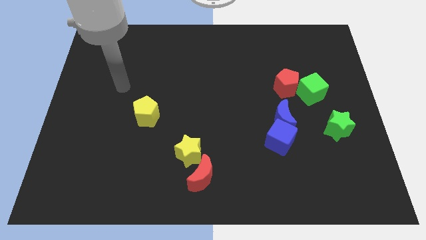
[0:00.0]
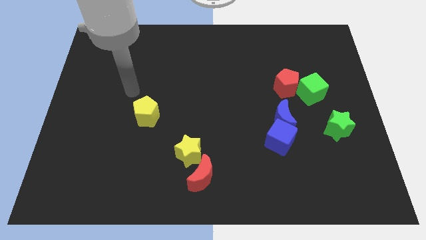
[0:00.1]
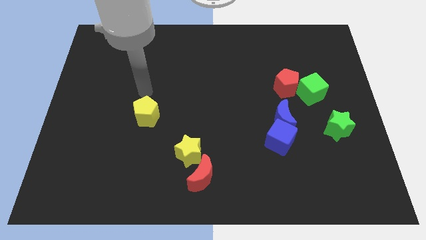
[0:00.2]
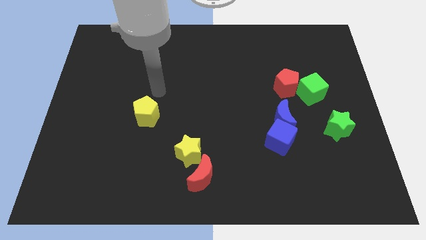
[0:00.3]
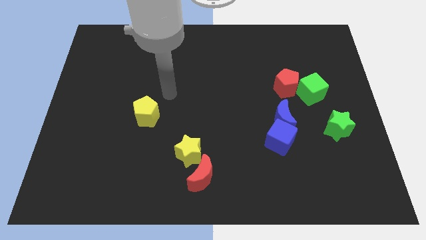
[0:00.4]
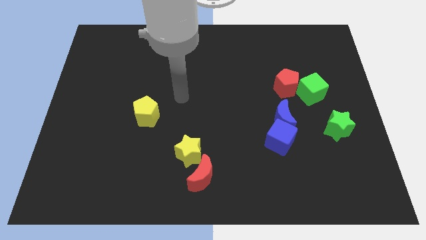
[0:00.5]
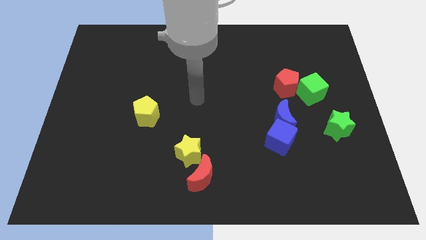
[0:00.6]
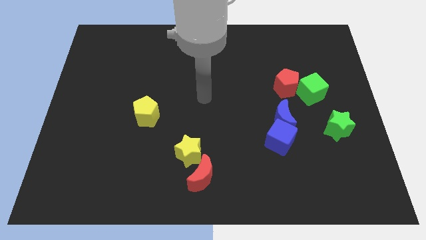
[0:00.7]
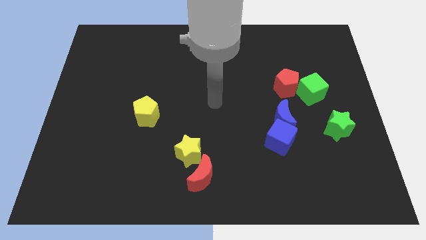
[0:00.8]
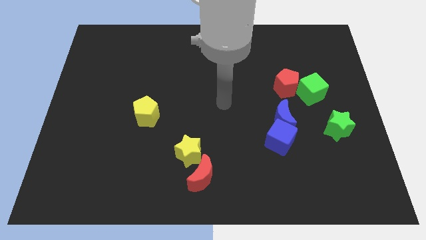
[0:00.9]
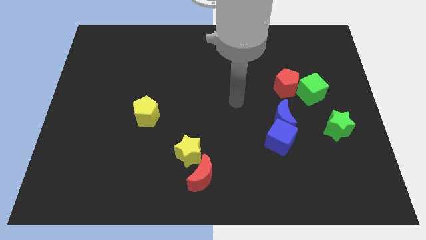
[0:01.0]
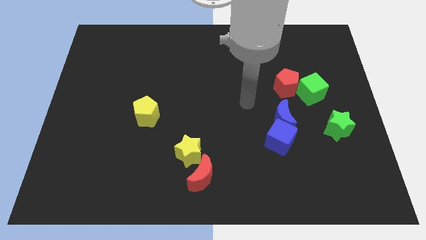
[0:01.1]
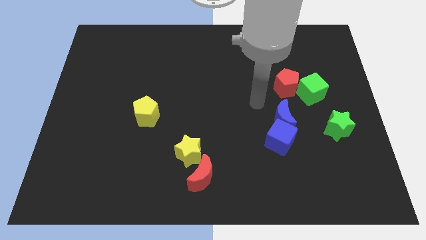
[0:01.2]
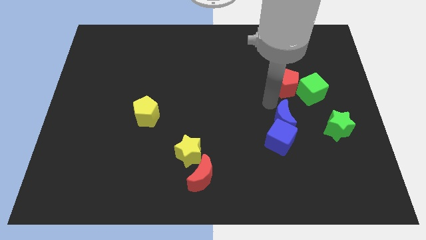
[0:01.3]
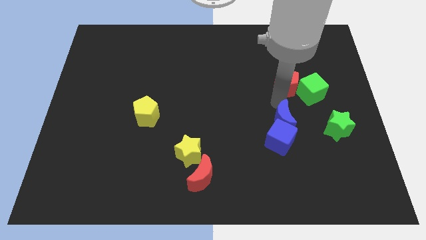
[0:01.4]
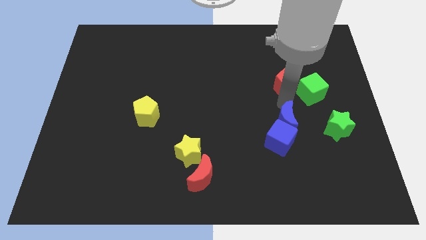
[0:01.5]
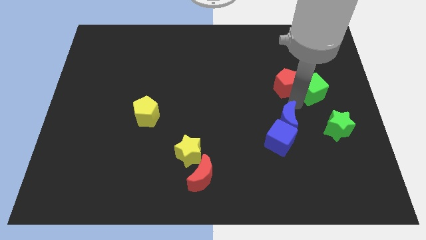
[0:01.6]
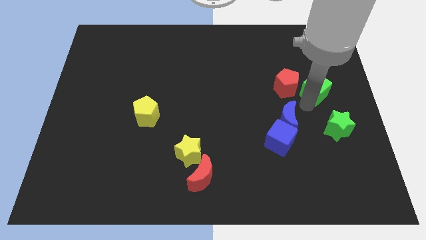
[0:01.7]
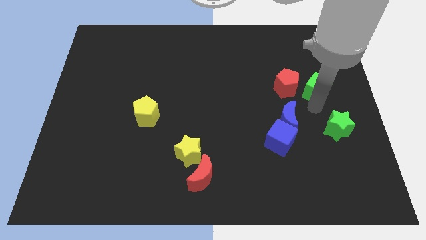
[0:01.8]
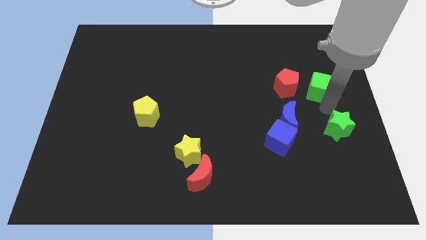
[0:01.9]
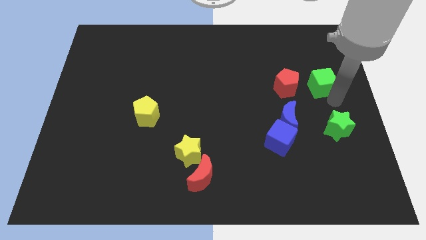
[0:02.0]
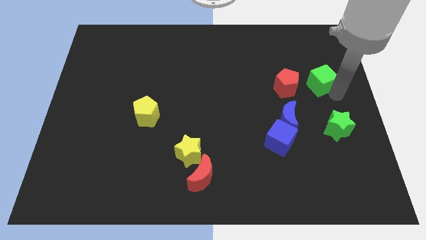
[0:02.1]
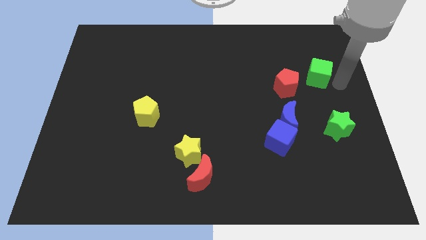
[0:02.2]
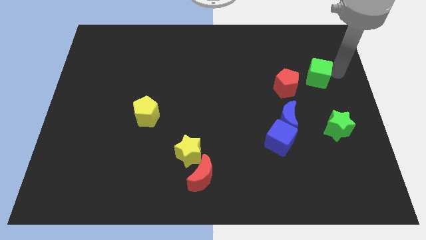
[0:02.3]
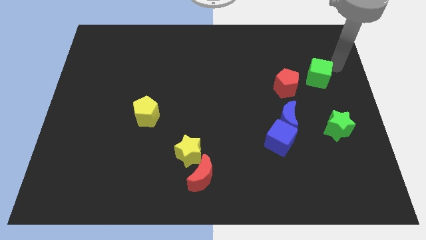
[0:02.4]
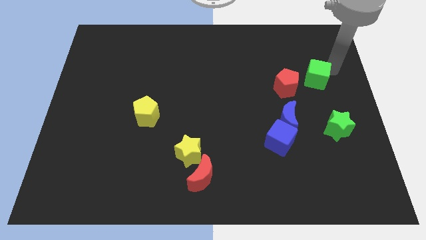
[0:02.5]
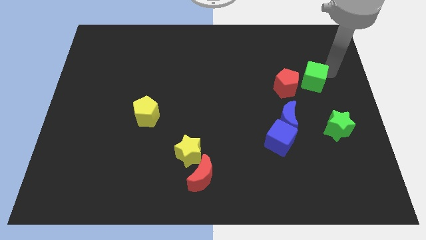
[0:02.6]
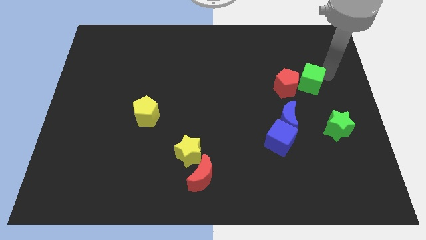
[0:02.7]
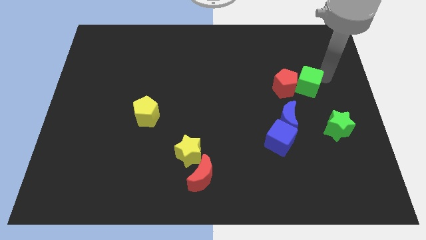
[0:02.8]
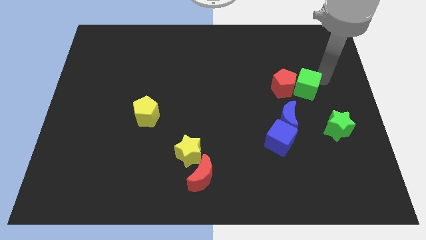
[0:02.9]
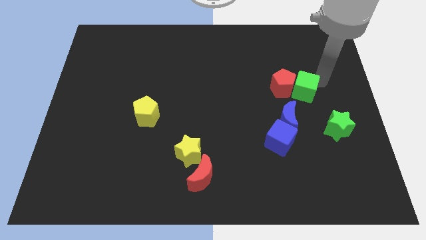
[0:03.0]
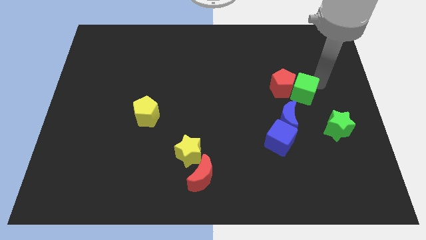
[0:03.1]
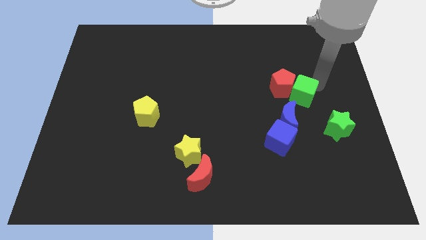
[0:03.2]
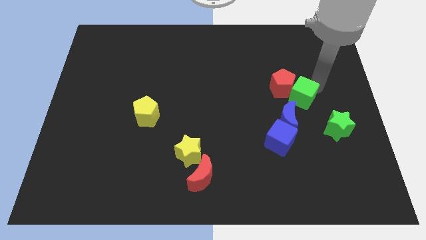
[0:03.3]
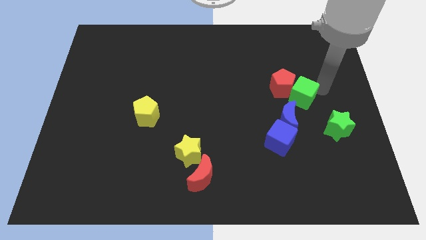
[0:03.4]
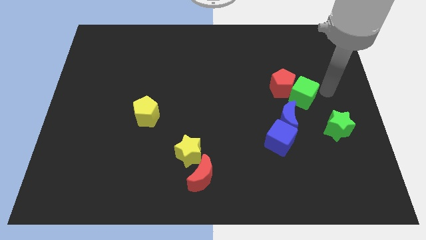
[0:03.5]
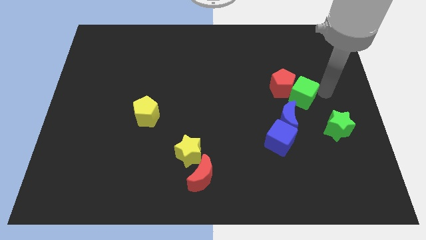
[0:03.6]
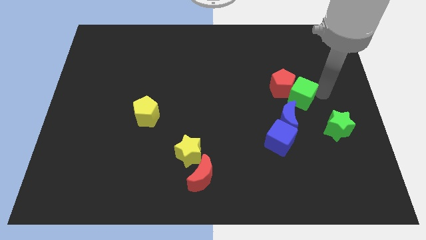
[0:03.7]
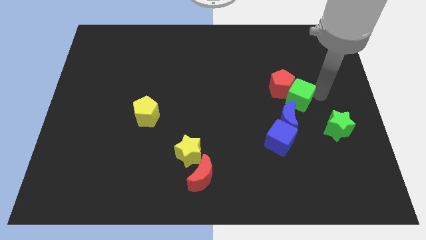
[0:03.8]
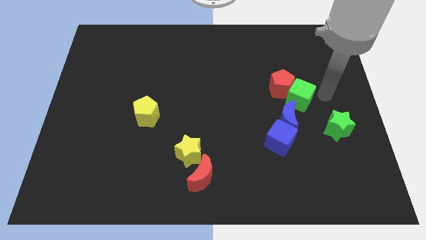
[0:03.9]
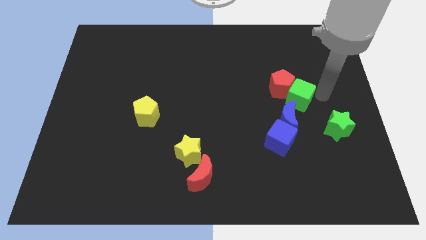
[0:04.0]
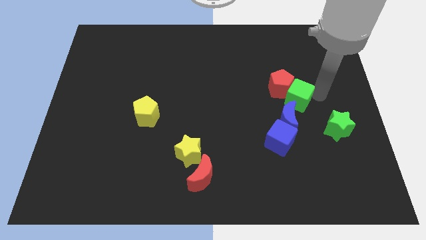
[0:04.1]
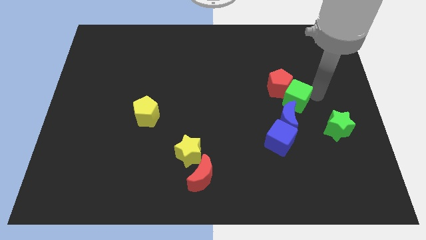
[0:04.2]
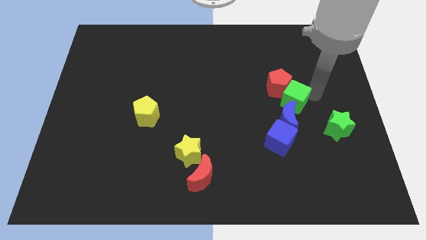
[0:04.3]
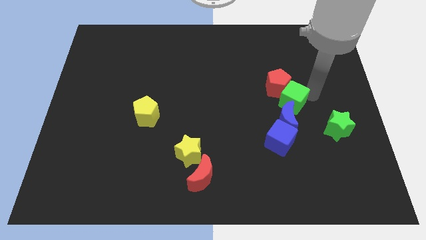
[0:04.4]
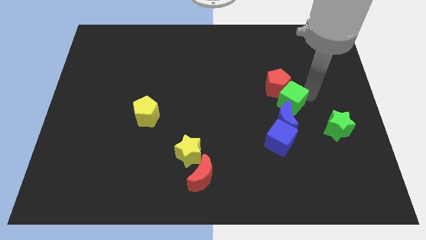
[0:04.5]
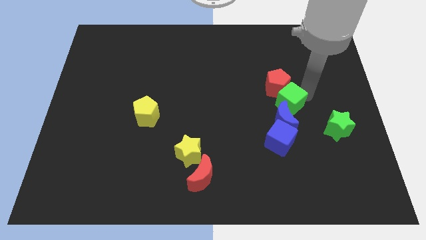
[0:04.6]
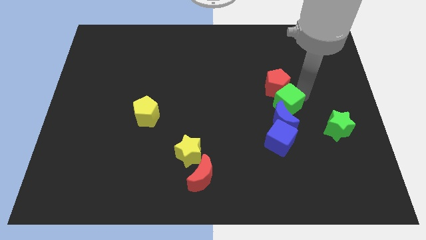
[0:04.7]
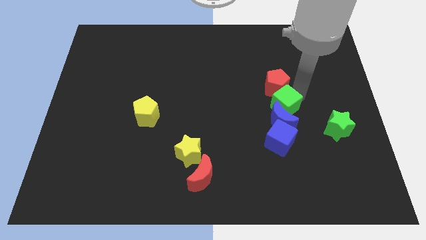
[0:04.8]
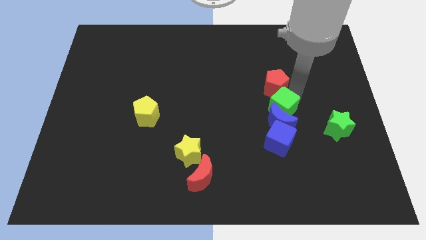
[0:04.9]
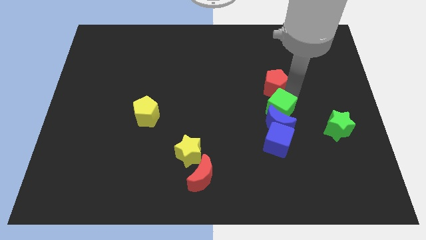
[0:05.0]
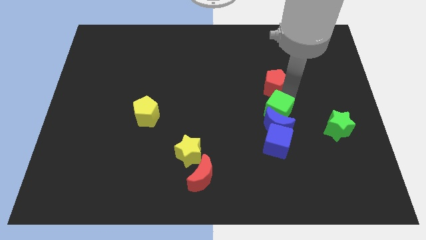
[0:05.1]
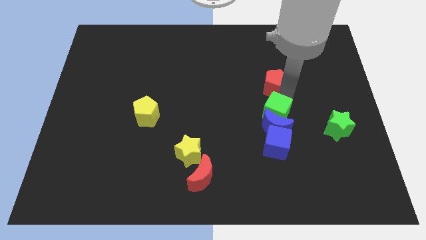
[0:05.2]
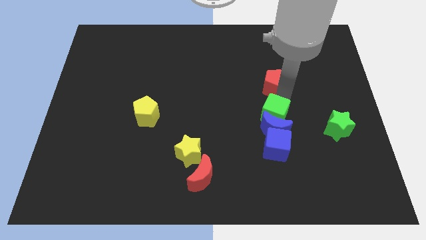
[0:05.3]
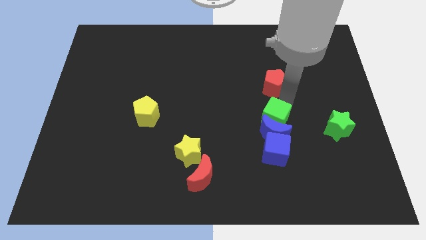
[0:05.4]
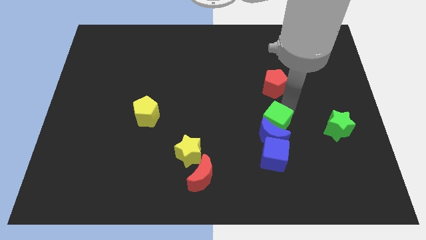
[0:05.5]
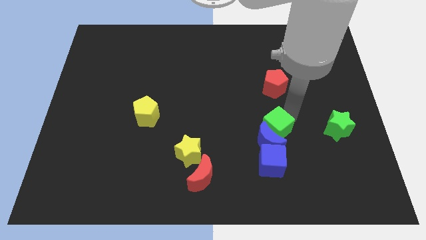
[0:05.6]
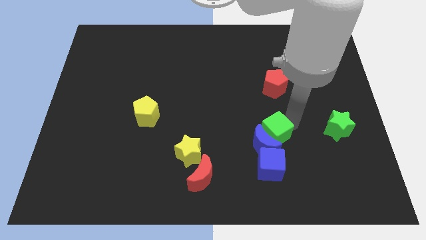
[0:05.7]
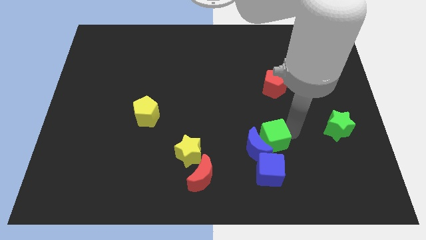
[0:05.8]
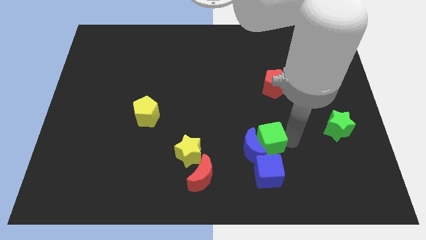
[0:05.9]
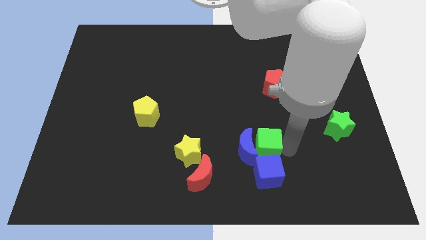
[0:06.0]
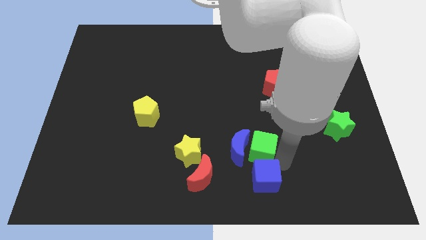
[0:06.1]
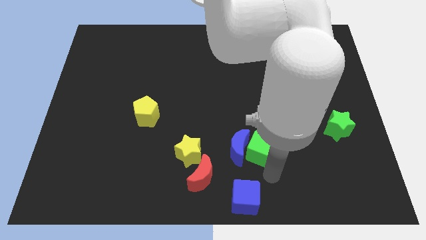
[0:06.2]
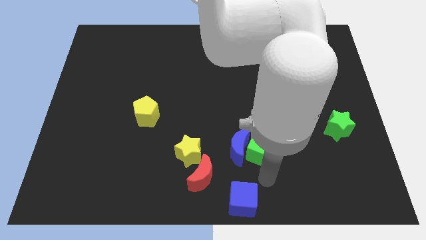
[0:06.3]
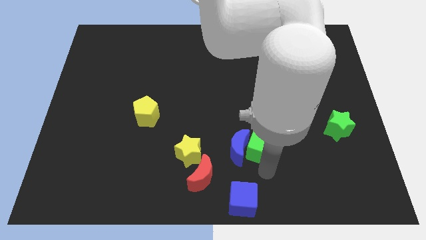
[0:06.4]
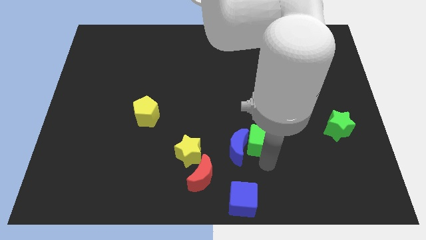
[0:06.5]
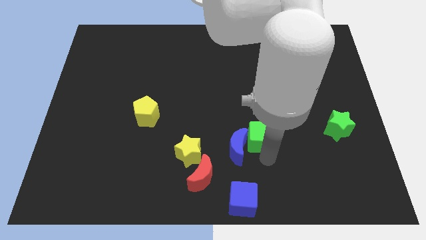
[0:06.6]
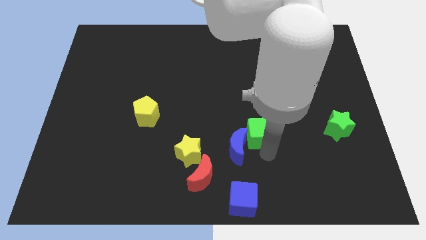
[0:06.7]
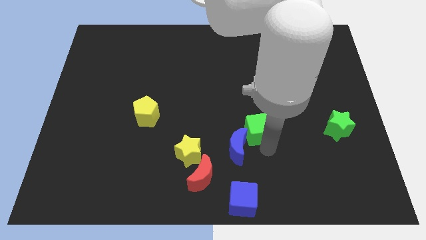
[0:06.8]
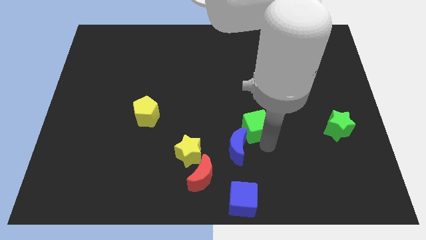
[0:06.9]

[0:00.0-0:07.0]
push the green cube to the middle of the board
